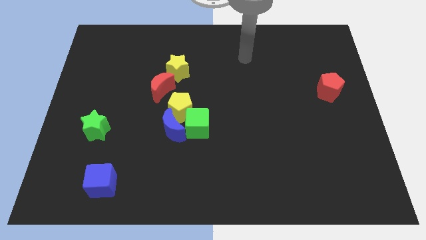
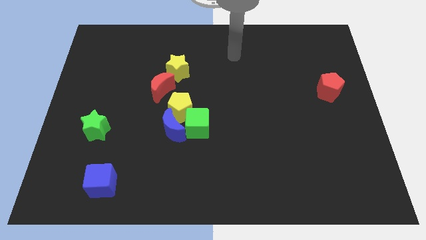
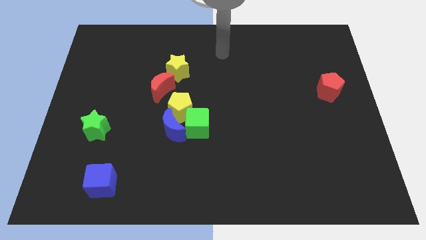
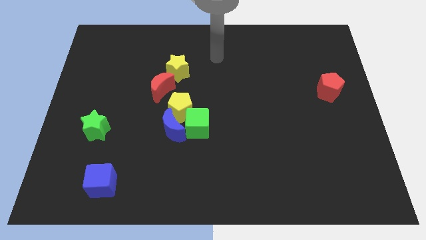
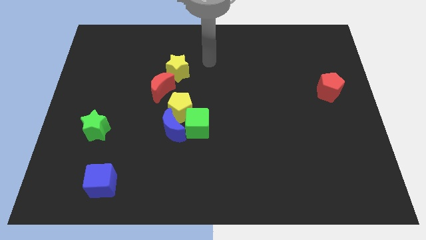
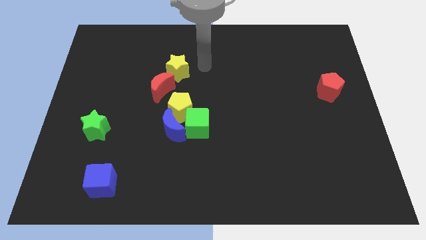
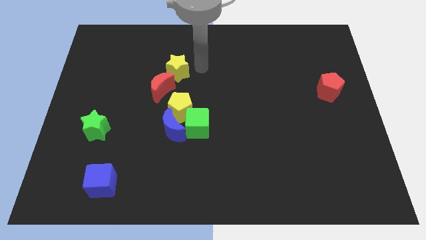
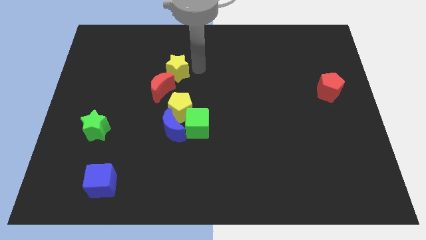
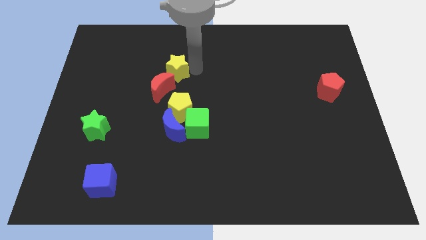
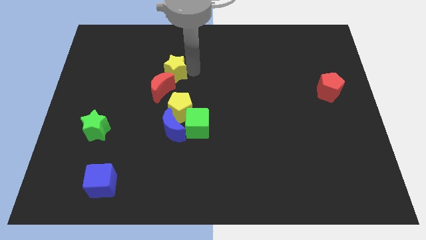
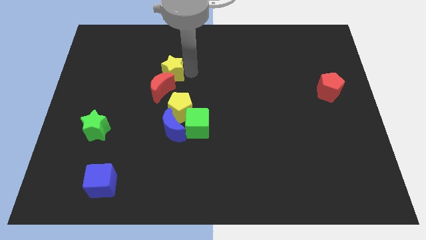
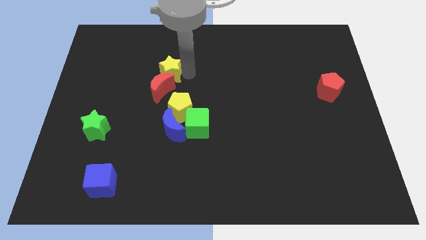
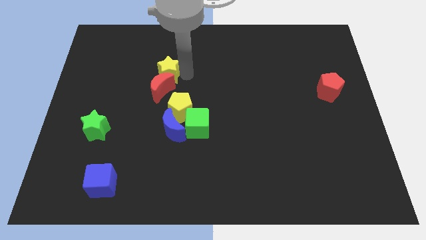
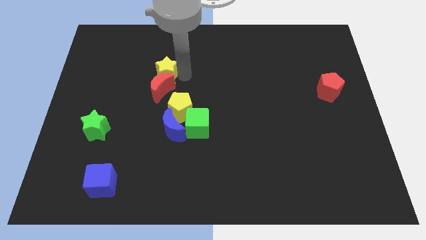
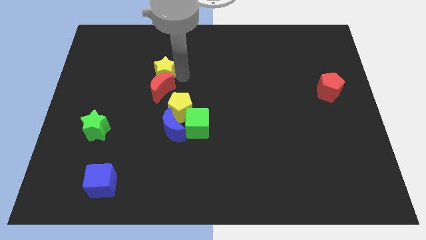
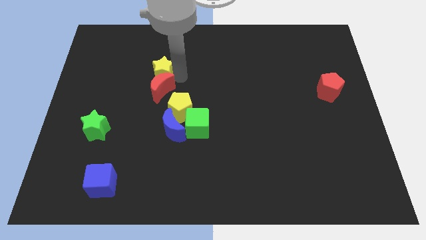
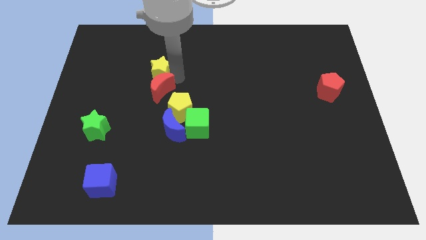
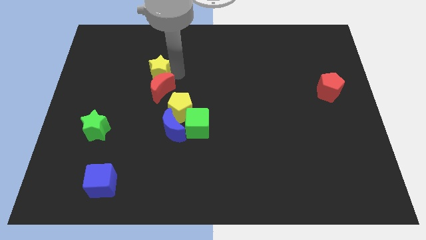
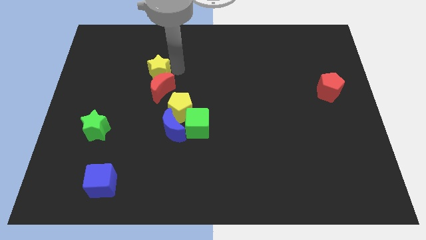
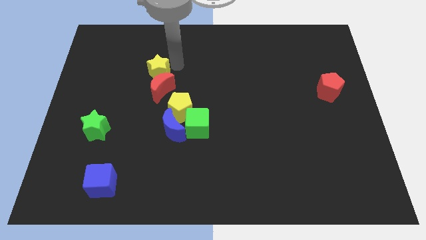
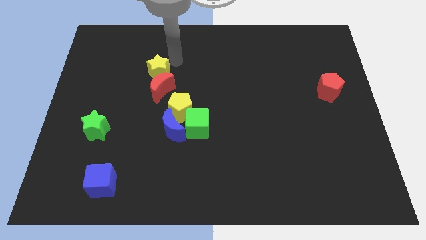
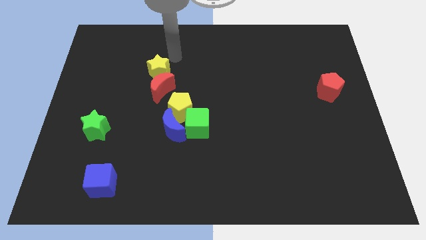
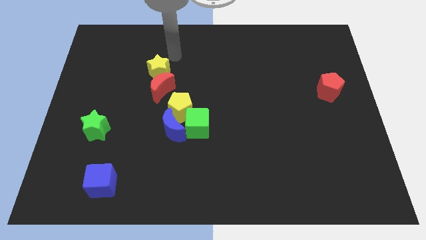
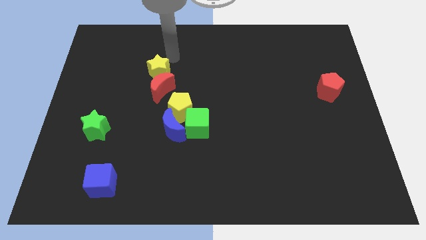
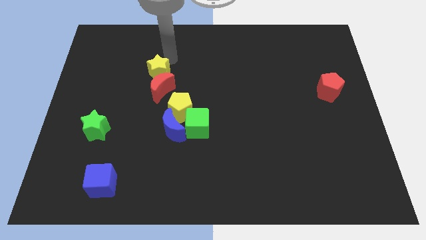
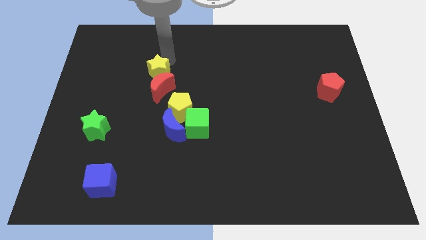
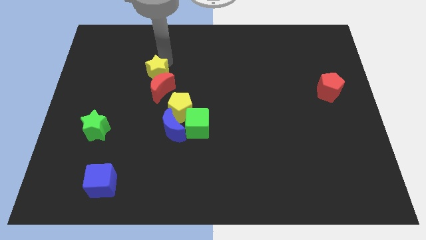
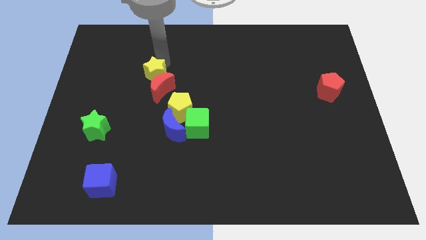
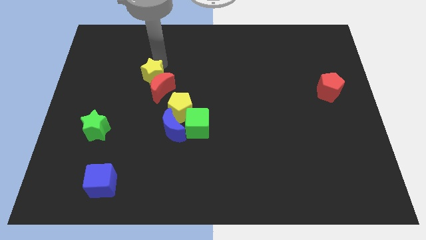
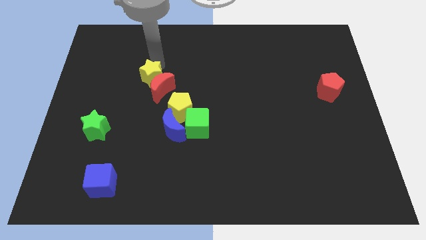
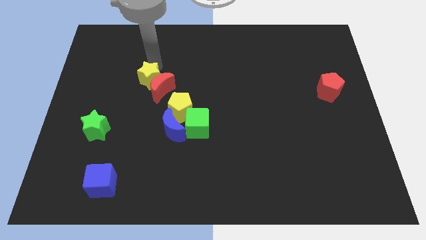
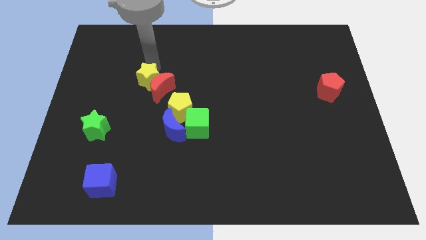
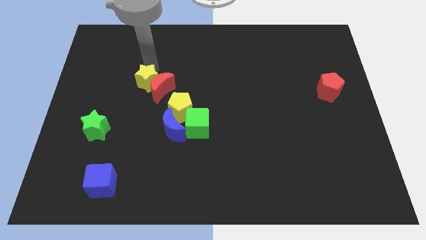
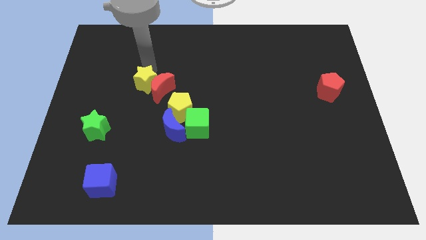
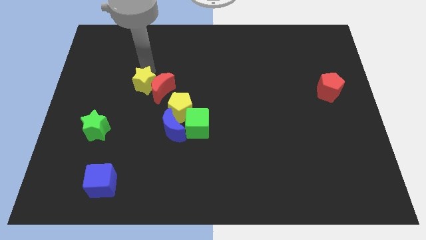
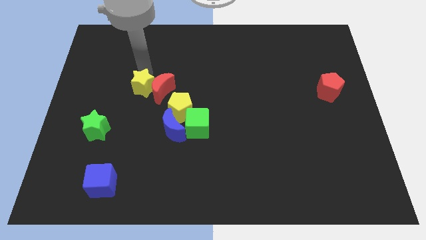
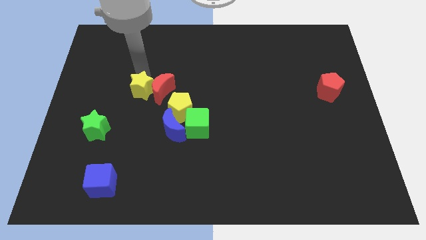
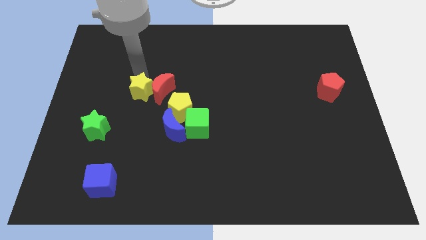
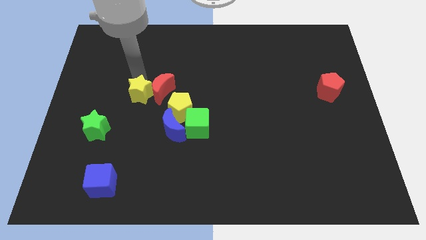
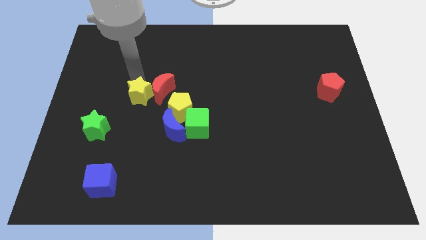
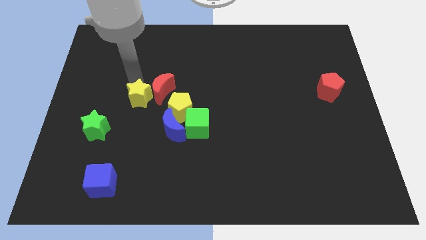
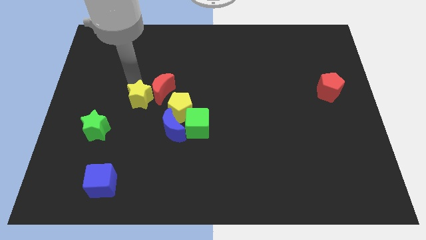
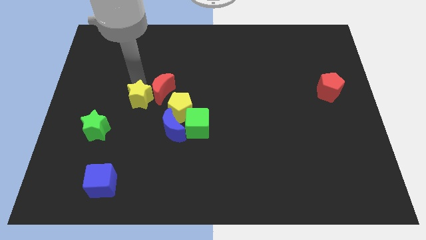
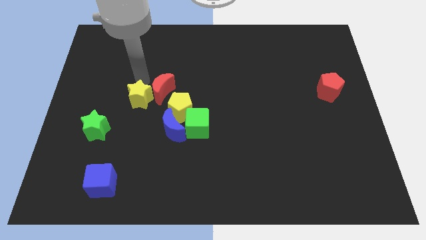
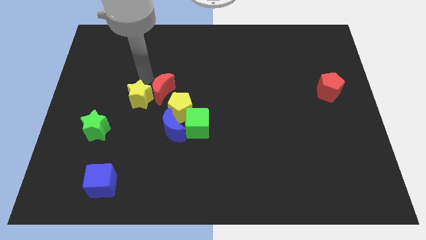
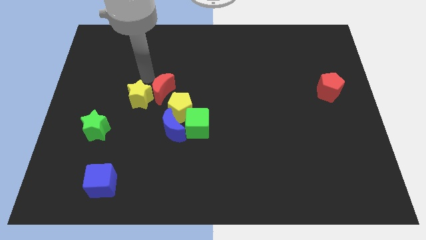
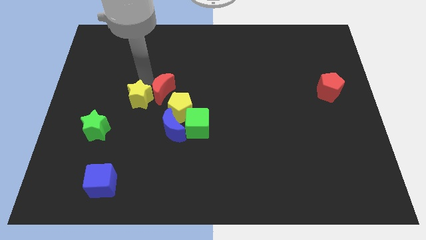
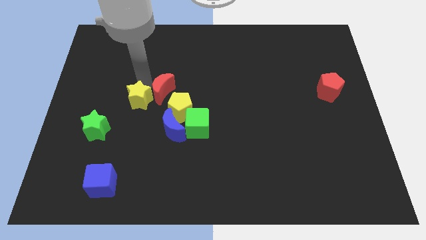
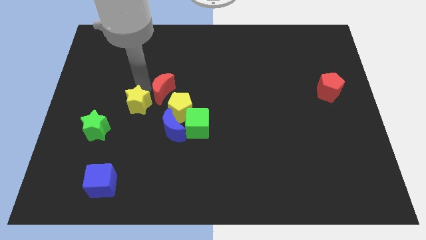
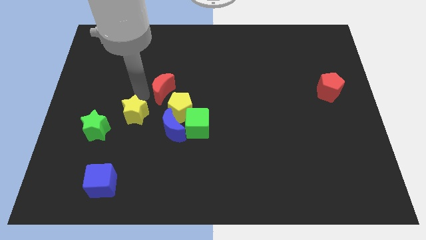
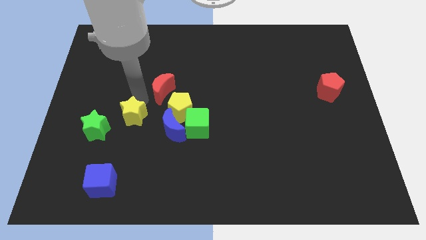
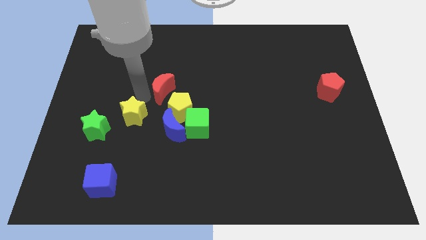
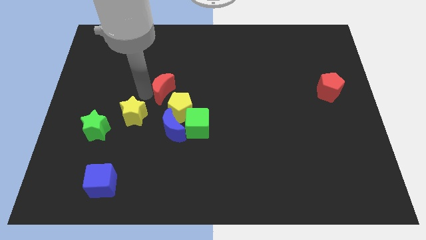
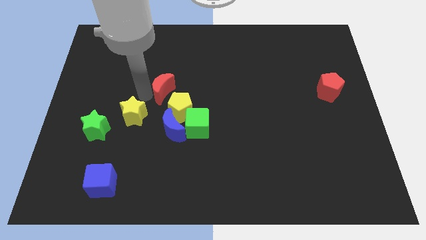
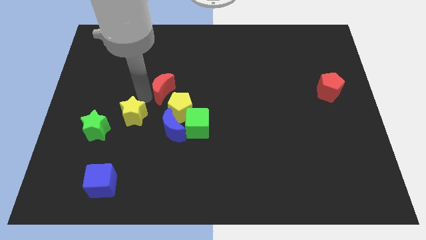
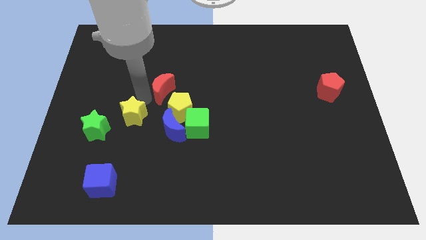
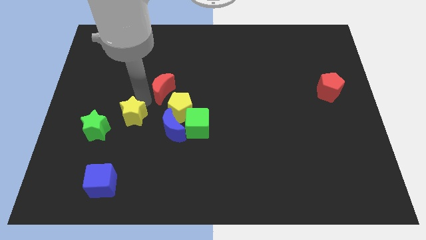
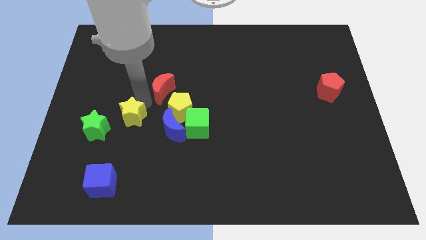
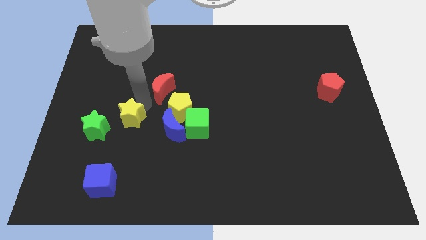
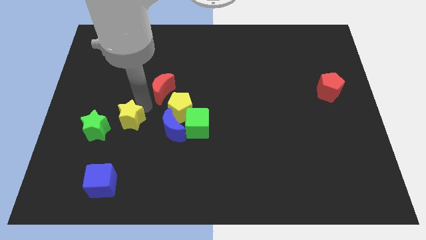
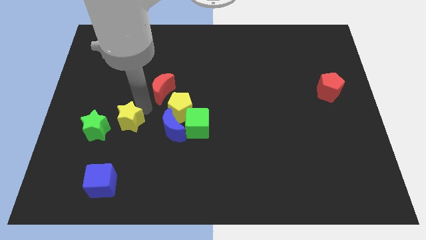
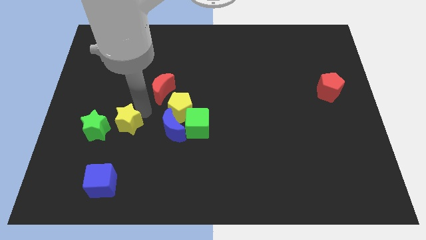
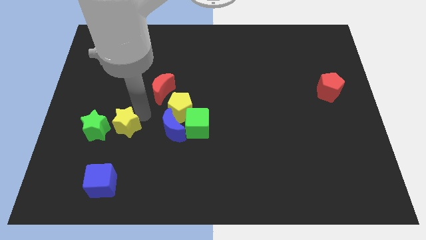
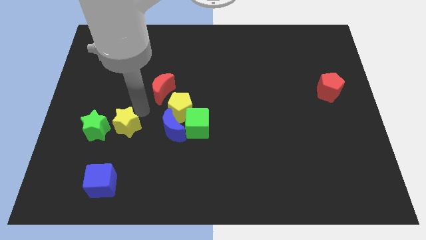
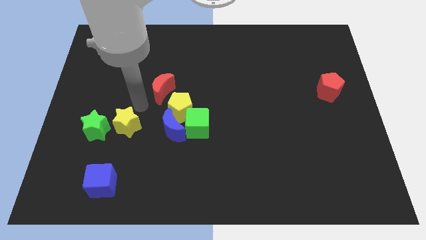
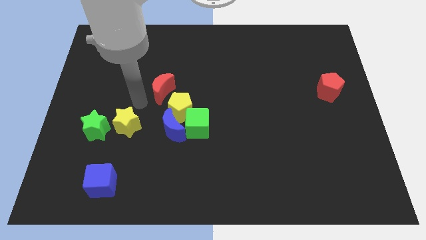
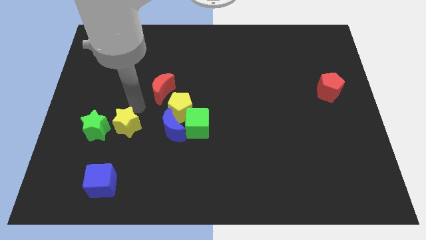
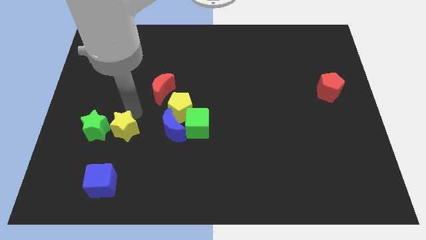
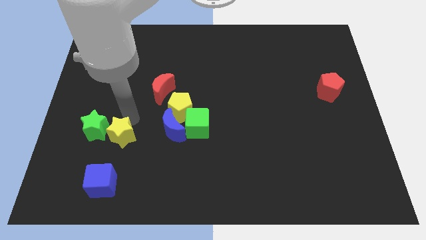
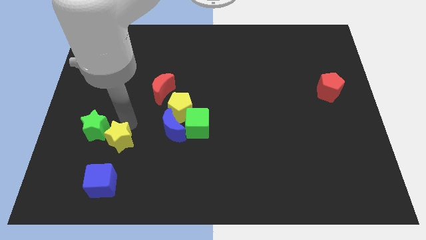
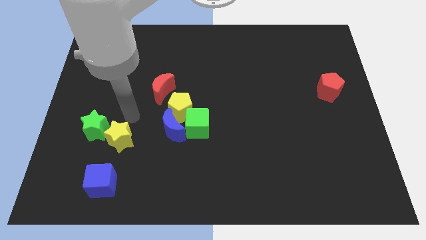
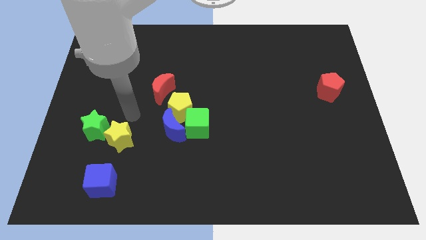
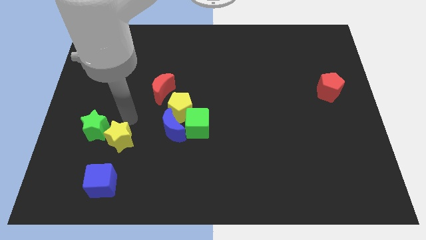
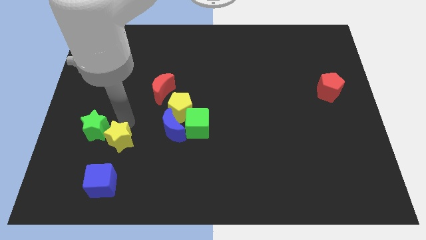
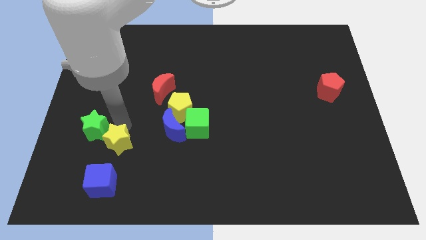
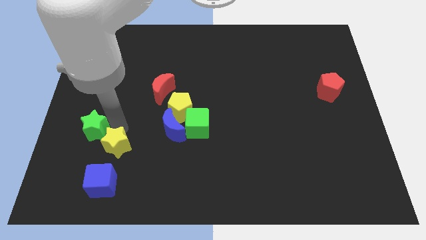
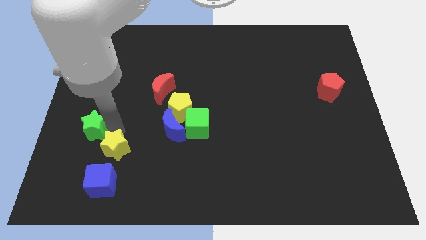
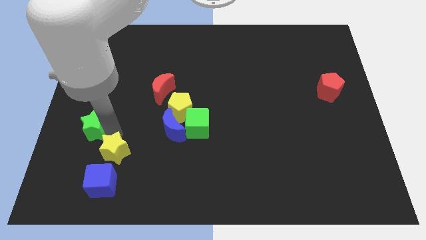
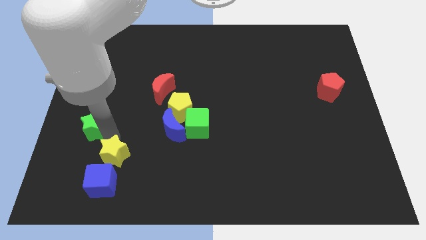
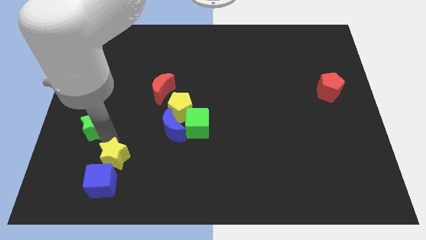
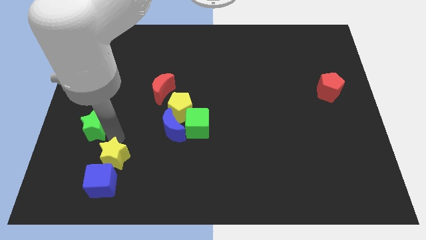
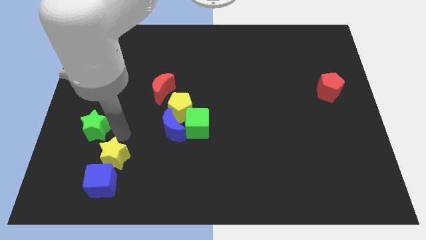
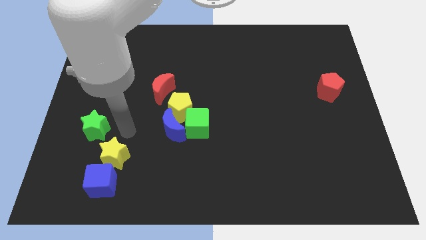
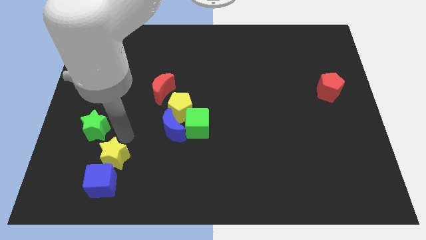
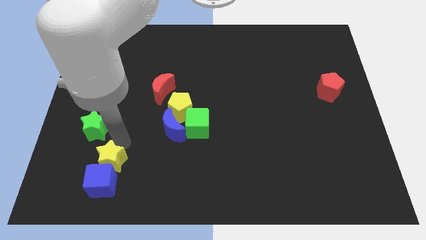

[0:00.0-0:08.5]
push the yellow star close to the blue cube

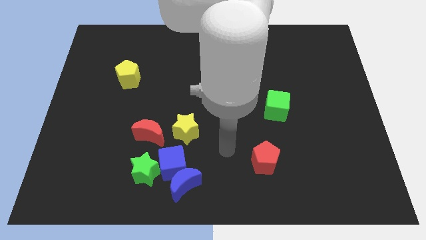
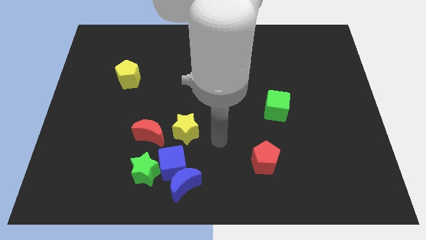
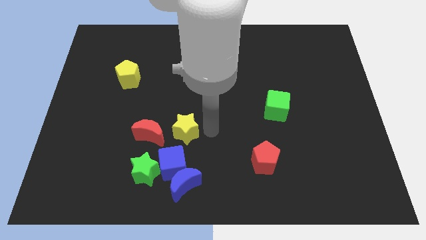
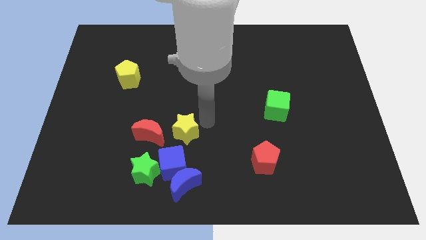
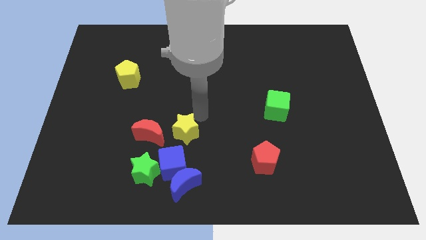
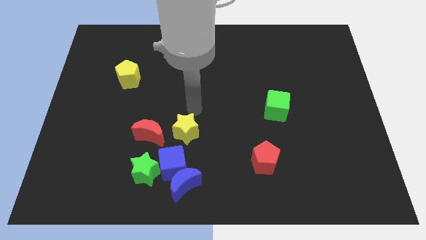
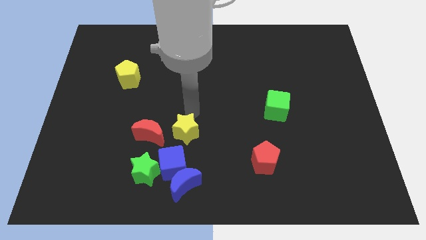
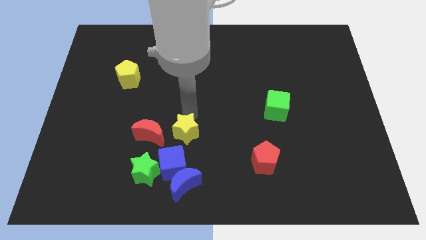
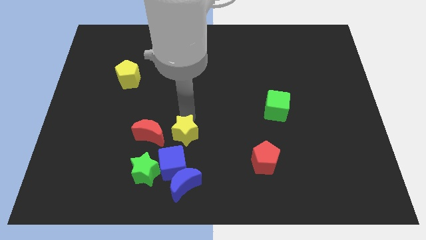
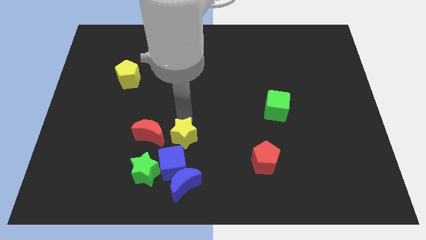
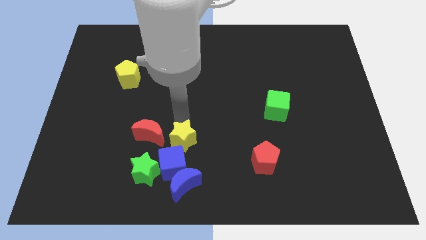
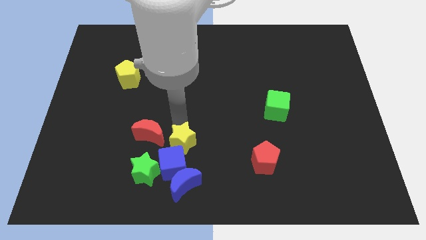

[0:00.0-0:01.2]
slide the yellow star to the blue cube
